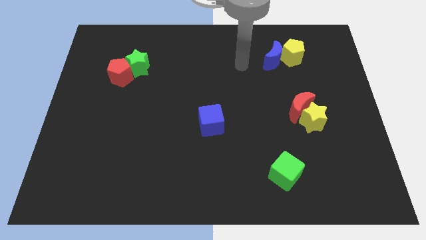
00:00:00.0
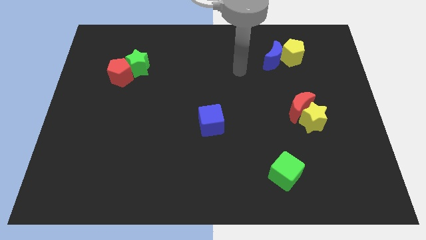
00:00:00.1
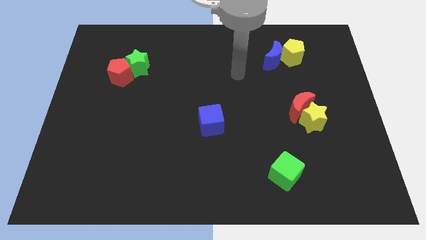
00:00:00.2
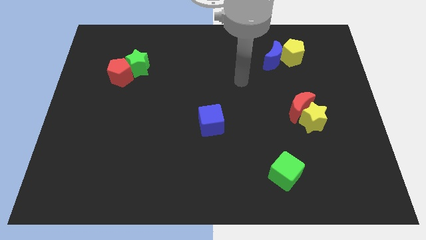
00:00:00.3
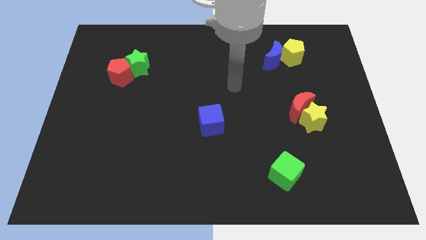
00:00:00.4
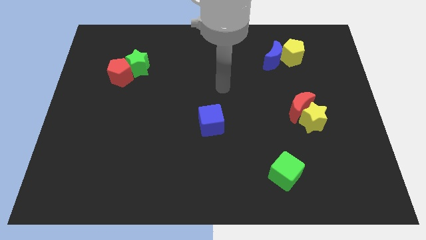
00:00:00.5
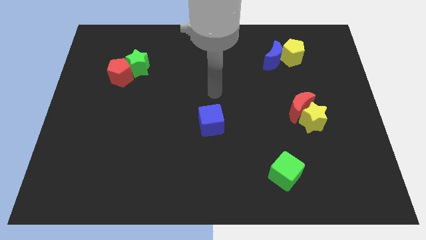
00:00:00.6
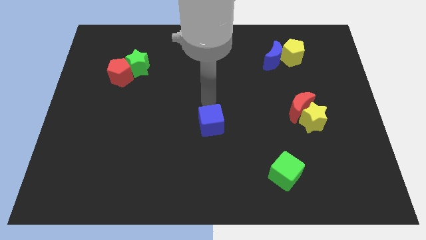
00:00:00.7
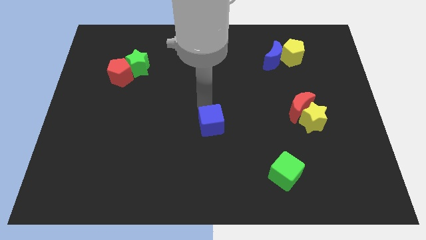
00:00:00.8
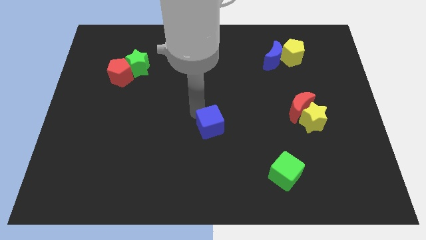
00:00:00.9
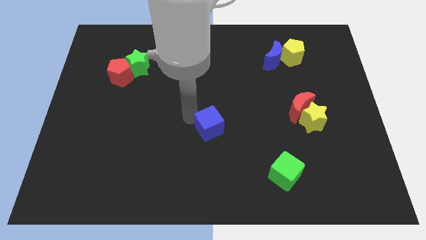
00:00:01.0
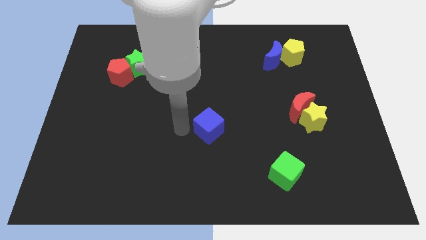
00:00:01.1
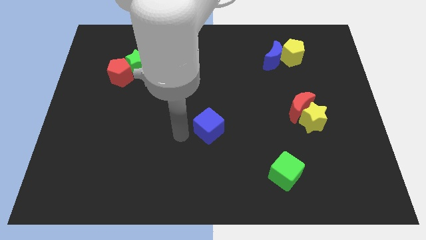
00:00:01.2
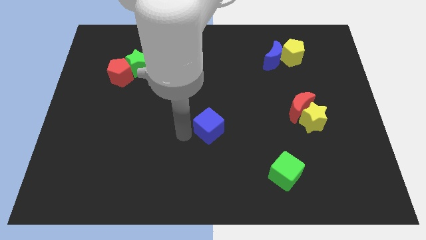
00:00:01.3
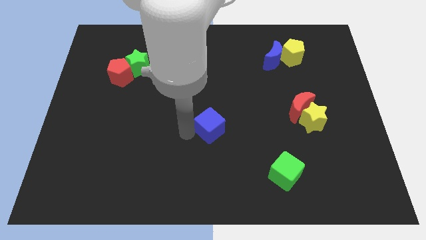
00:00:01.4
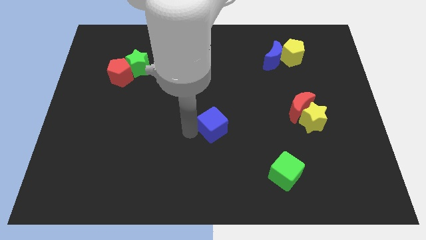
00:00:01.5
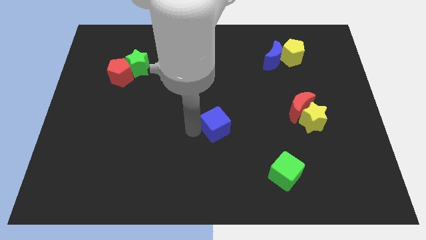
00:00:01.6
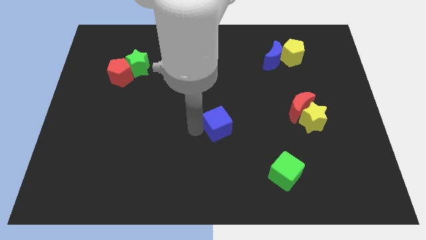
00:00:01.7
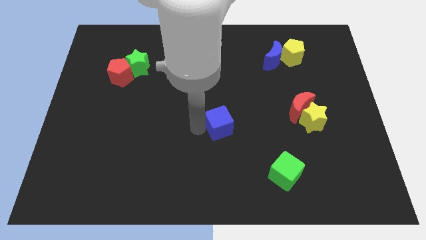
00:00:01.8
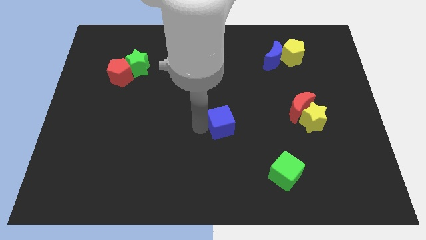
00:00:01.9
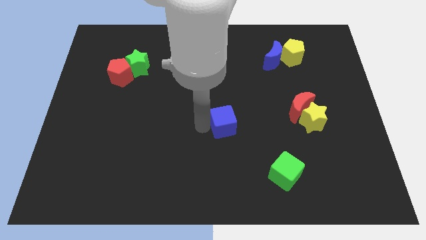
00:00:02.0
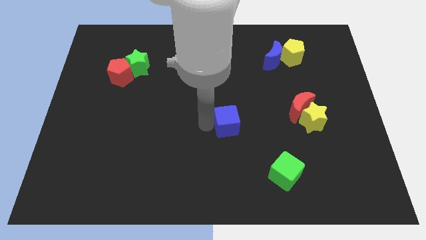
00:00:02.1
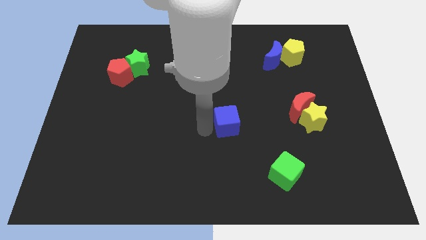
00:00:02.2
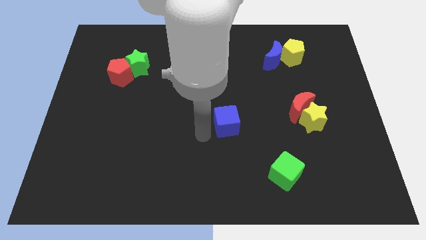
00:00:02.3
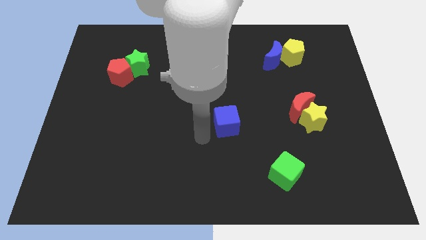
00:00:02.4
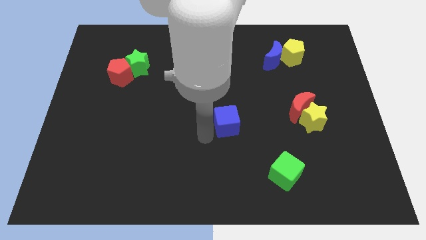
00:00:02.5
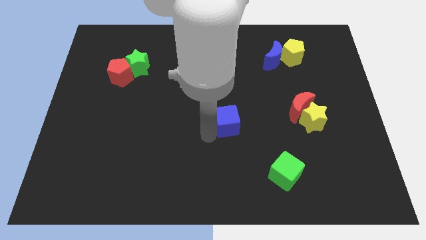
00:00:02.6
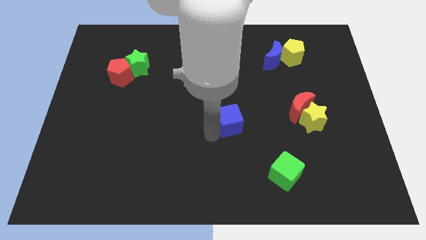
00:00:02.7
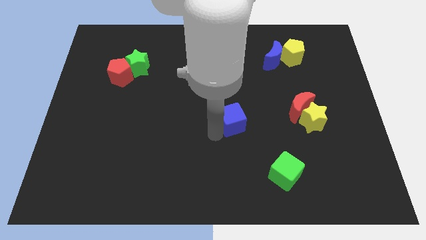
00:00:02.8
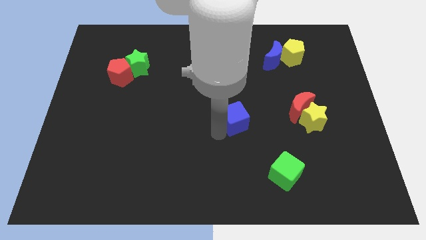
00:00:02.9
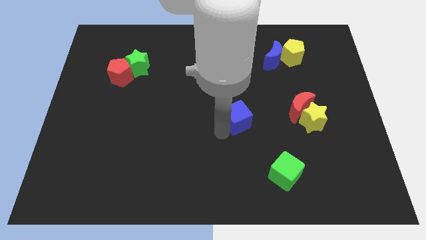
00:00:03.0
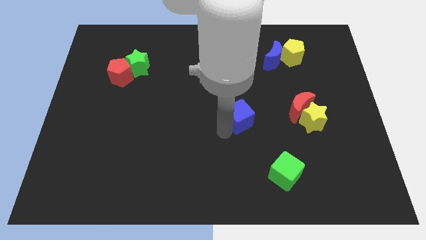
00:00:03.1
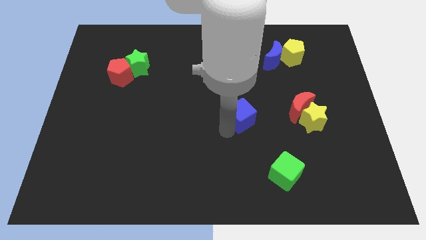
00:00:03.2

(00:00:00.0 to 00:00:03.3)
slightly move the blue cube to the right

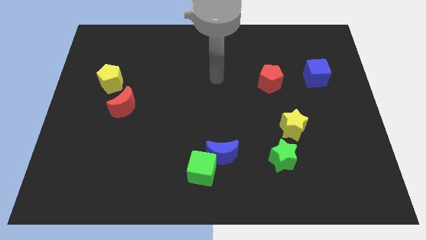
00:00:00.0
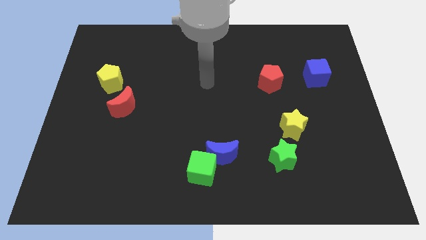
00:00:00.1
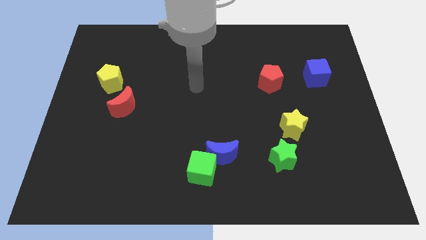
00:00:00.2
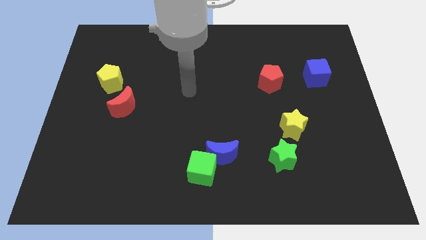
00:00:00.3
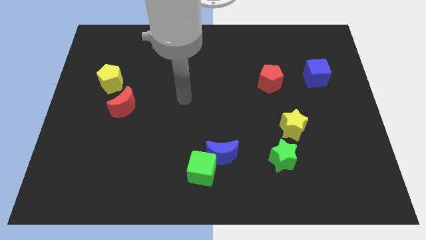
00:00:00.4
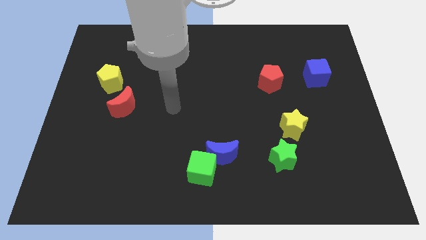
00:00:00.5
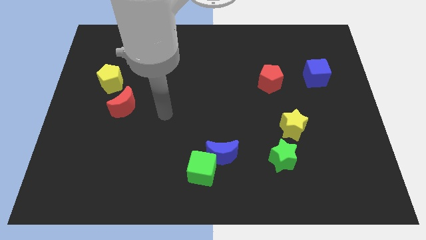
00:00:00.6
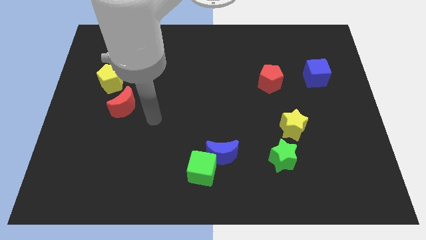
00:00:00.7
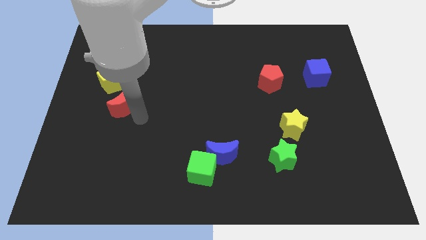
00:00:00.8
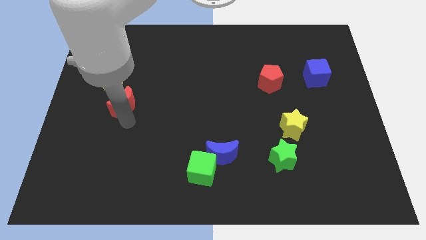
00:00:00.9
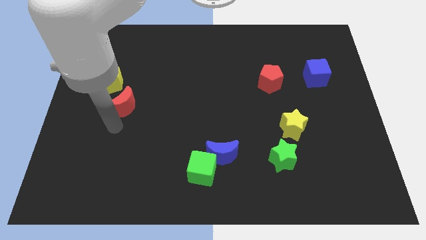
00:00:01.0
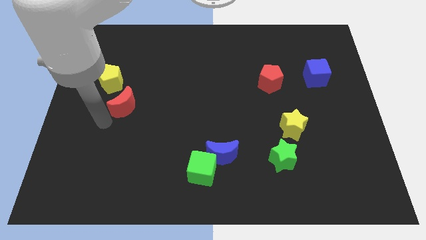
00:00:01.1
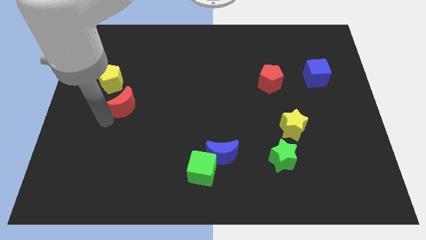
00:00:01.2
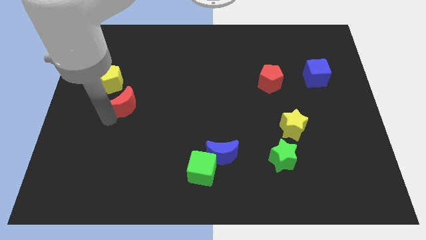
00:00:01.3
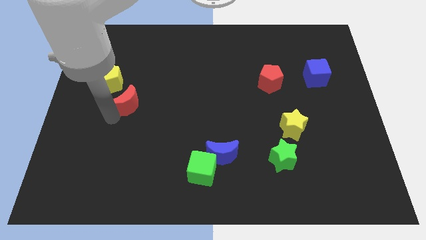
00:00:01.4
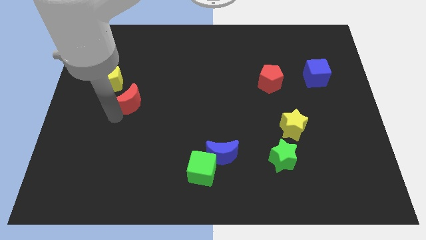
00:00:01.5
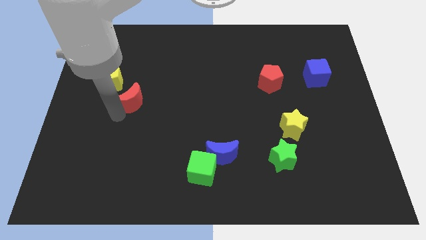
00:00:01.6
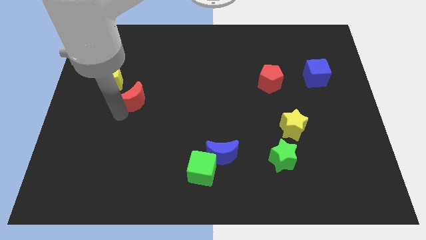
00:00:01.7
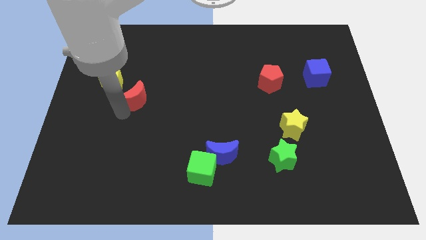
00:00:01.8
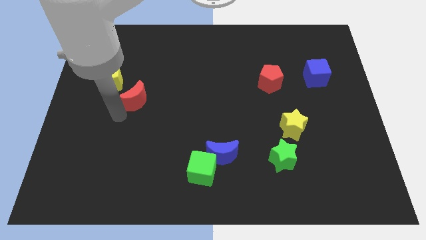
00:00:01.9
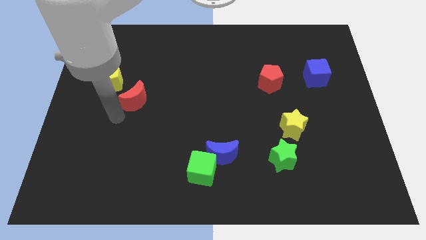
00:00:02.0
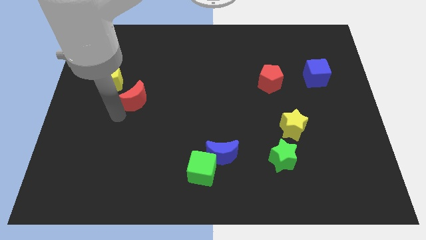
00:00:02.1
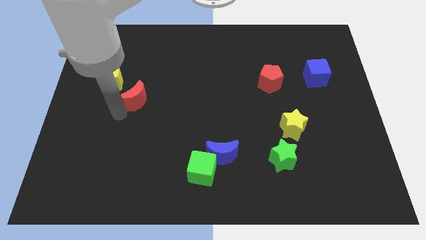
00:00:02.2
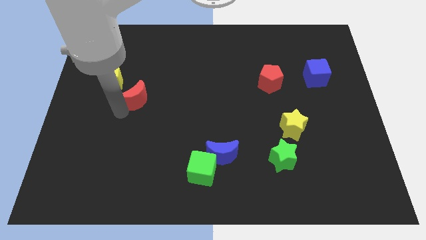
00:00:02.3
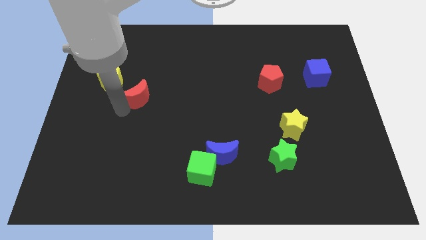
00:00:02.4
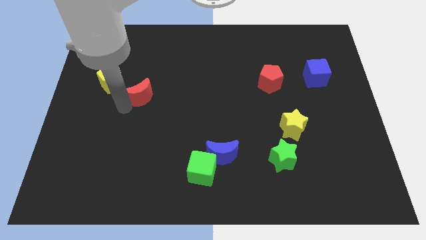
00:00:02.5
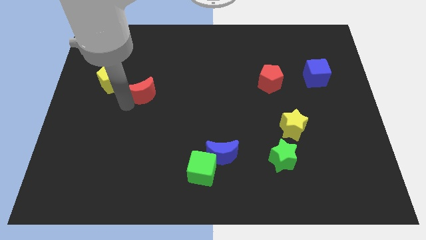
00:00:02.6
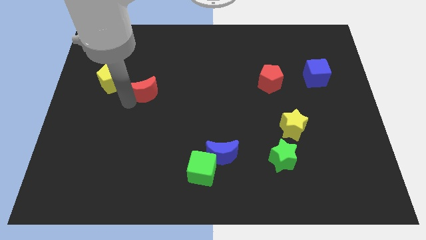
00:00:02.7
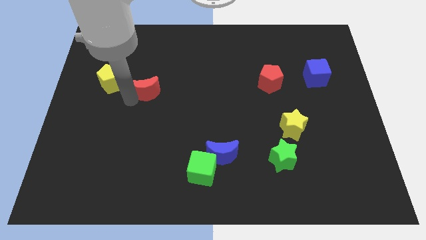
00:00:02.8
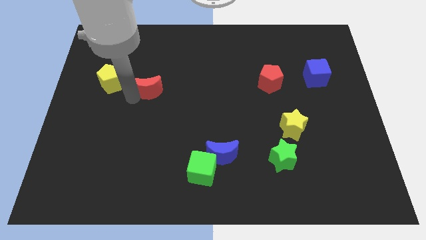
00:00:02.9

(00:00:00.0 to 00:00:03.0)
slide the red moon up and to the right a bit

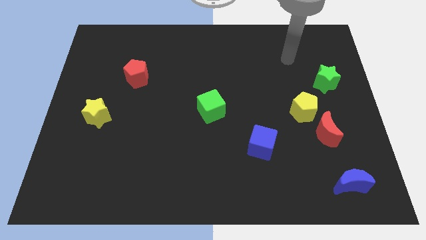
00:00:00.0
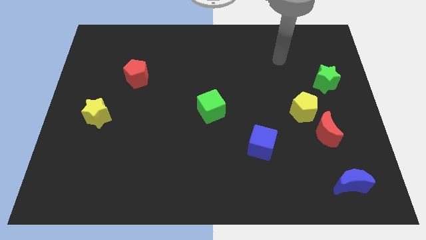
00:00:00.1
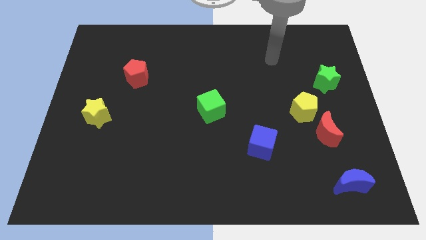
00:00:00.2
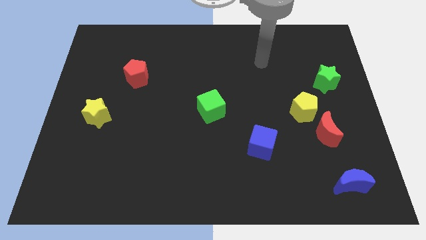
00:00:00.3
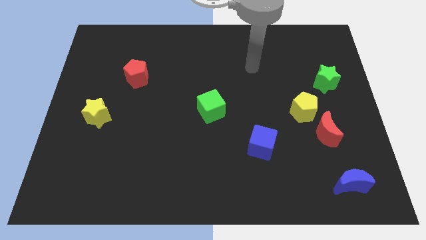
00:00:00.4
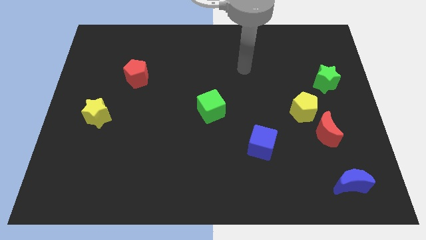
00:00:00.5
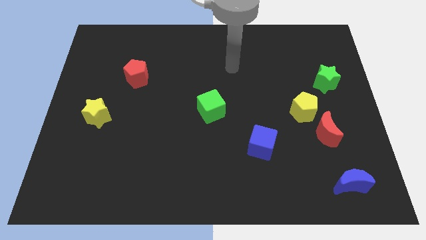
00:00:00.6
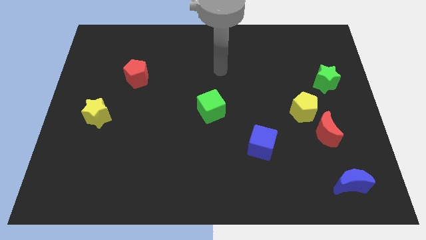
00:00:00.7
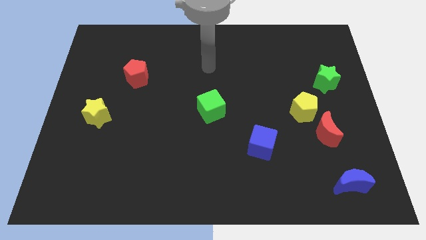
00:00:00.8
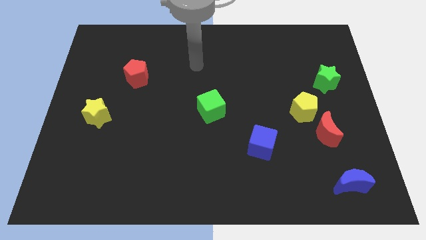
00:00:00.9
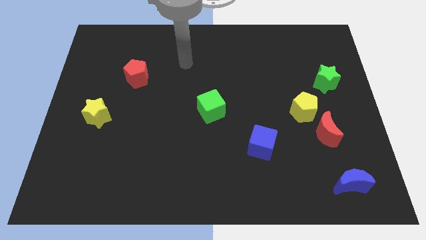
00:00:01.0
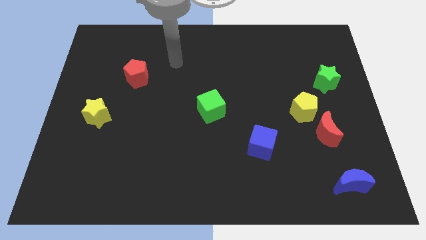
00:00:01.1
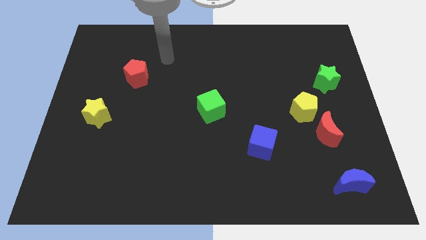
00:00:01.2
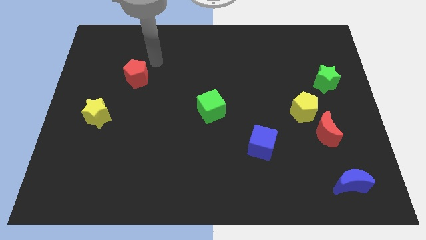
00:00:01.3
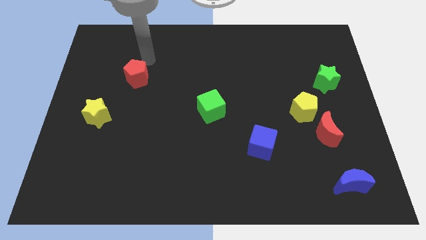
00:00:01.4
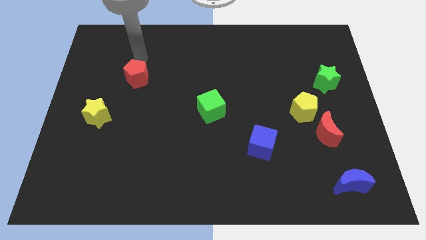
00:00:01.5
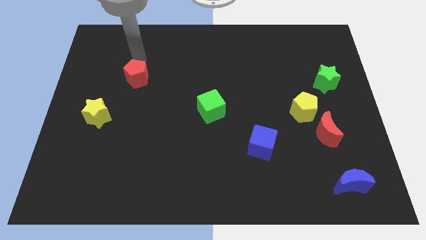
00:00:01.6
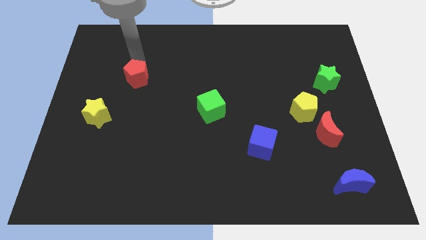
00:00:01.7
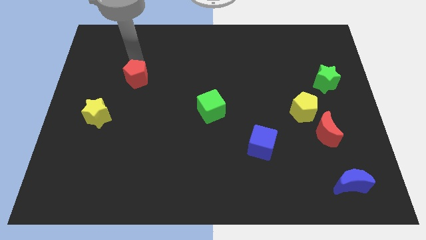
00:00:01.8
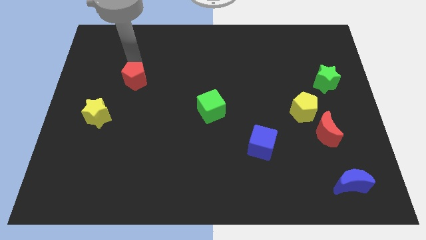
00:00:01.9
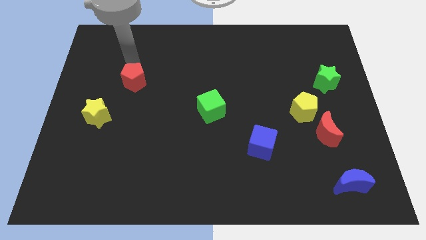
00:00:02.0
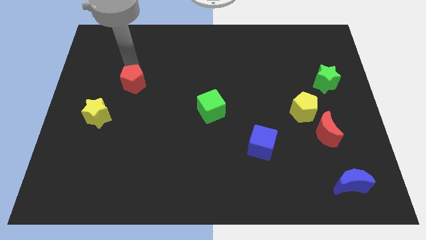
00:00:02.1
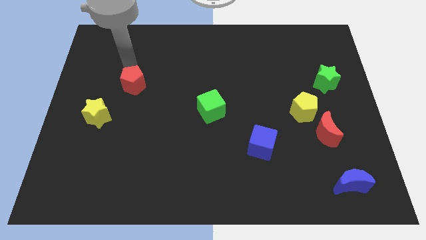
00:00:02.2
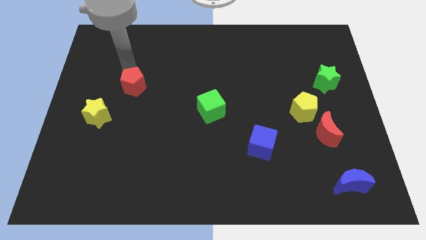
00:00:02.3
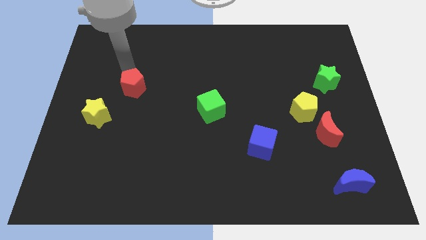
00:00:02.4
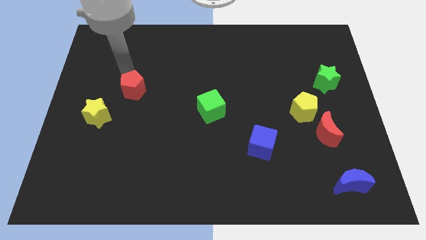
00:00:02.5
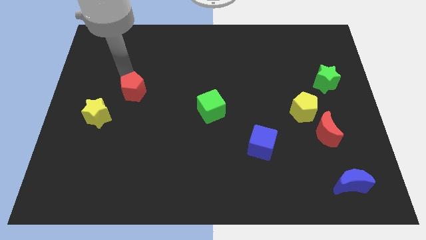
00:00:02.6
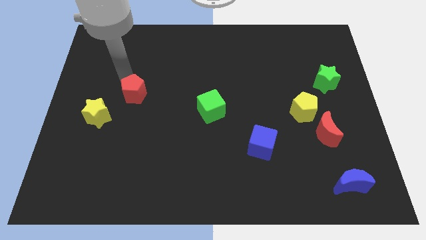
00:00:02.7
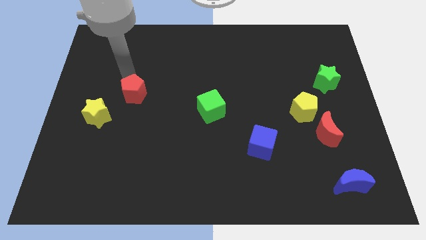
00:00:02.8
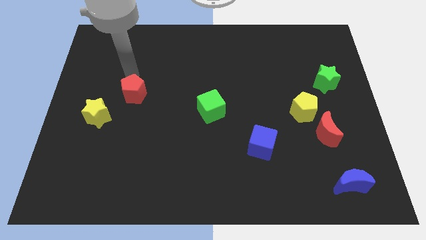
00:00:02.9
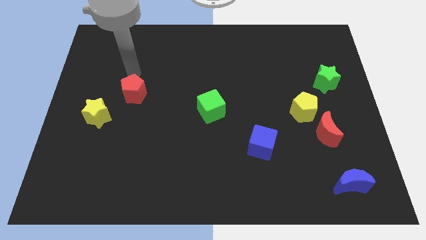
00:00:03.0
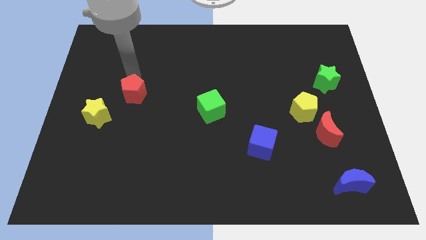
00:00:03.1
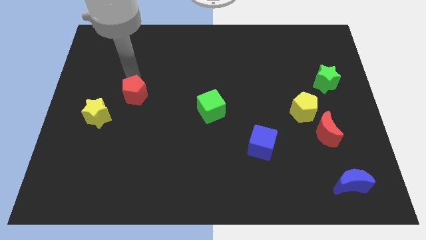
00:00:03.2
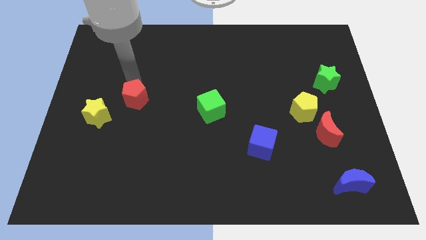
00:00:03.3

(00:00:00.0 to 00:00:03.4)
slightly slide the red pentagon down
